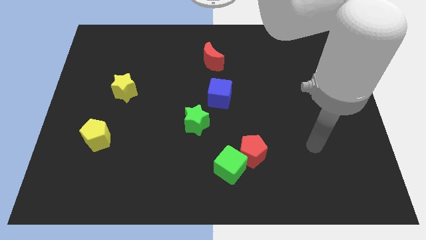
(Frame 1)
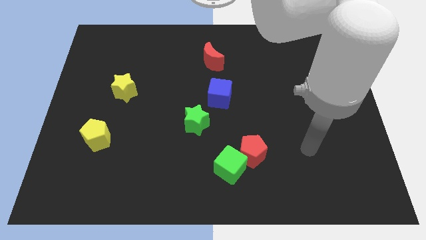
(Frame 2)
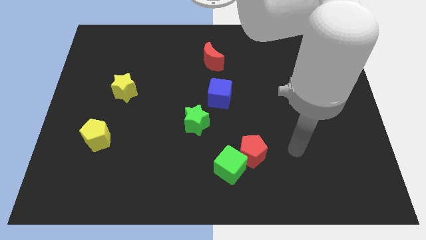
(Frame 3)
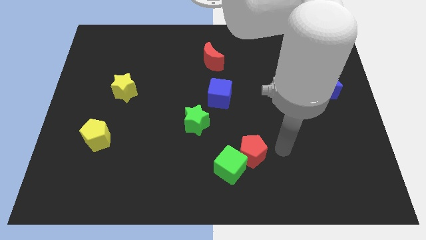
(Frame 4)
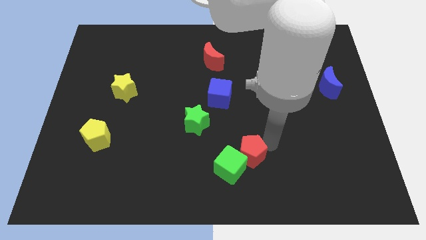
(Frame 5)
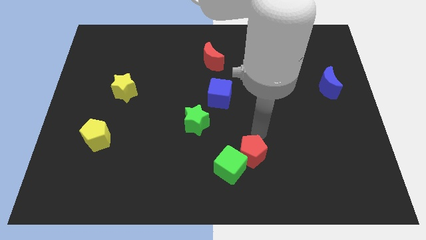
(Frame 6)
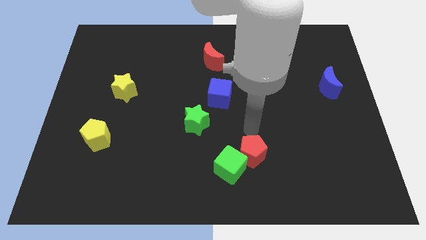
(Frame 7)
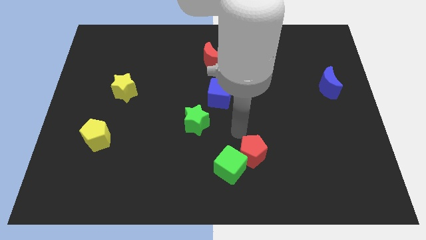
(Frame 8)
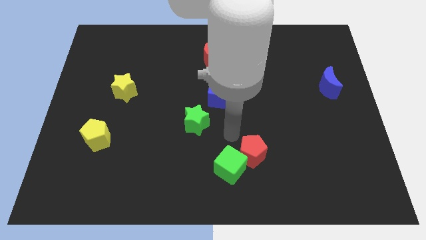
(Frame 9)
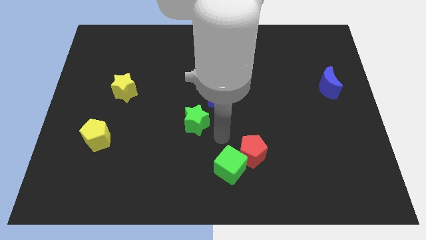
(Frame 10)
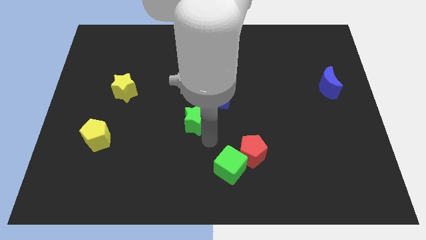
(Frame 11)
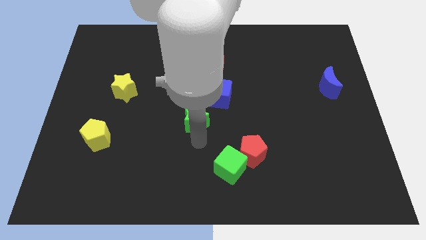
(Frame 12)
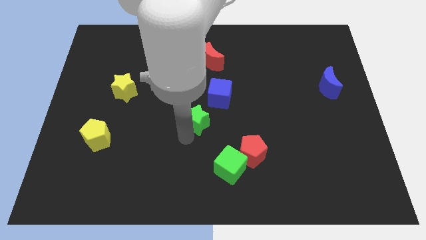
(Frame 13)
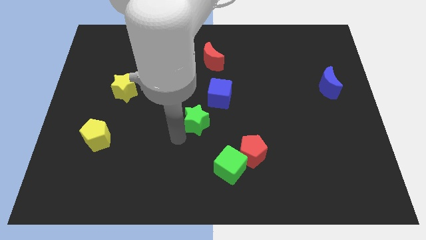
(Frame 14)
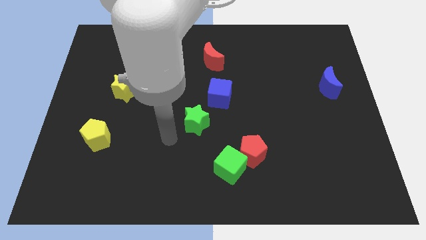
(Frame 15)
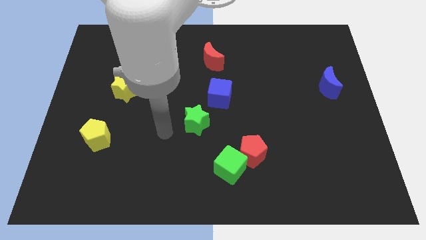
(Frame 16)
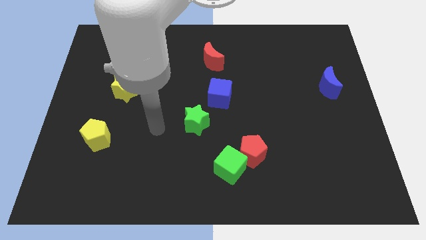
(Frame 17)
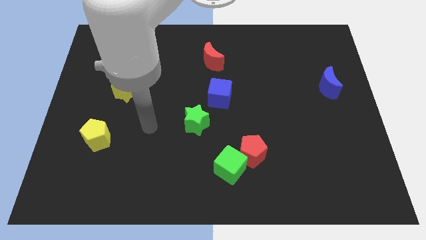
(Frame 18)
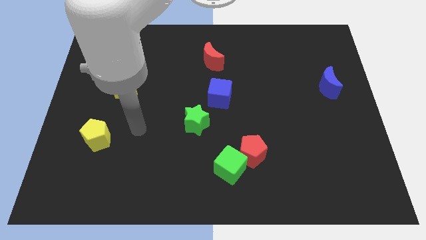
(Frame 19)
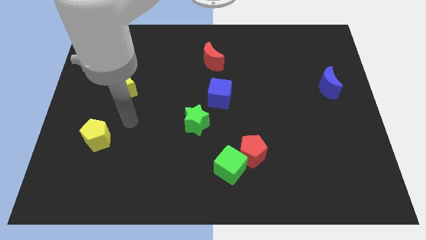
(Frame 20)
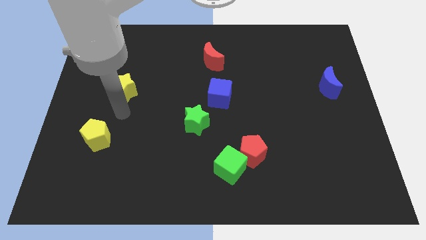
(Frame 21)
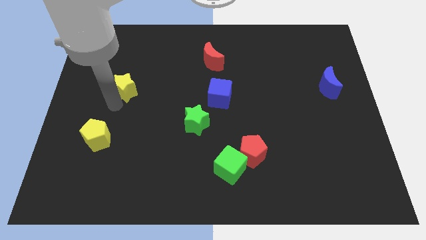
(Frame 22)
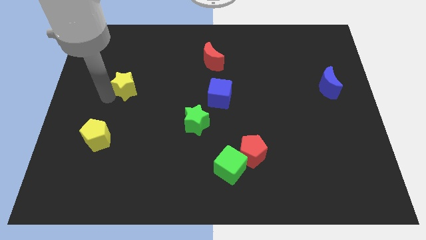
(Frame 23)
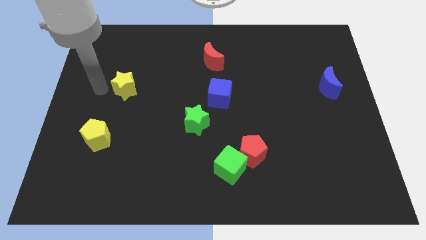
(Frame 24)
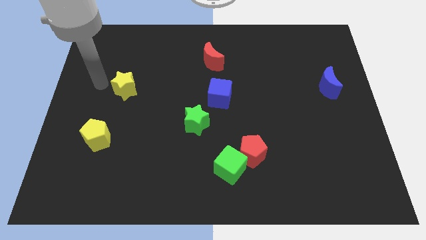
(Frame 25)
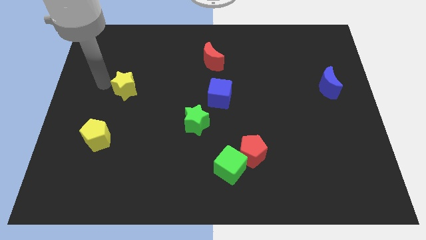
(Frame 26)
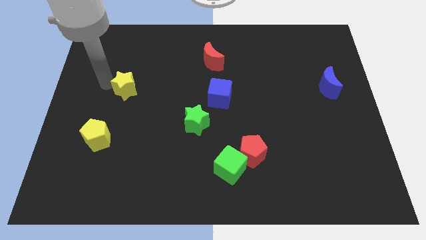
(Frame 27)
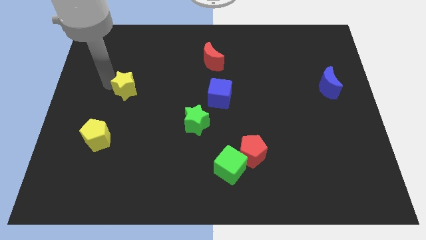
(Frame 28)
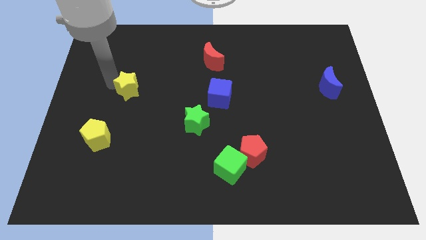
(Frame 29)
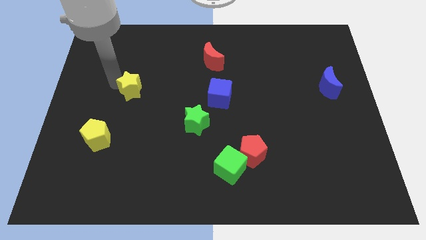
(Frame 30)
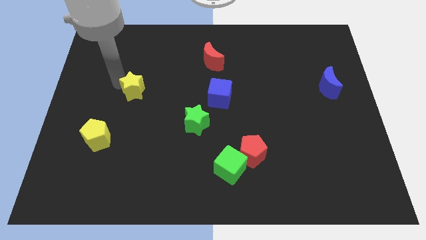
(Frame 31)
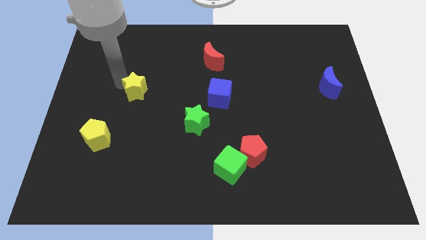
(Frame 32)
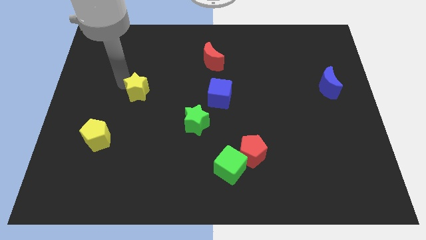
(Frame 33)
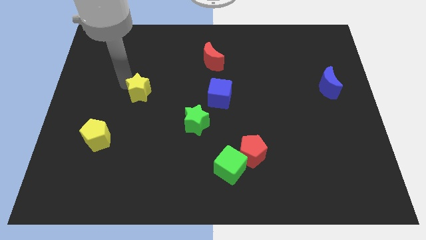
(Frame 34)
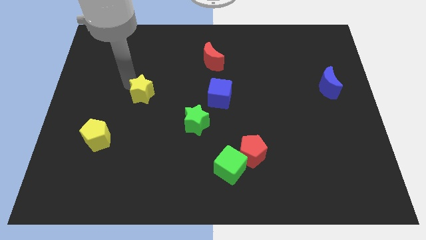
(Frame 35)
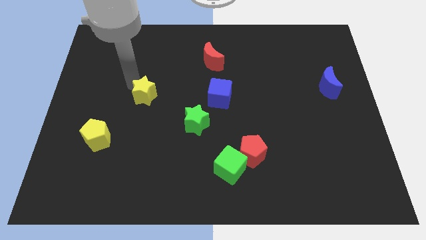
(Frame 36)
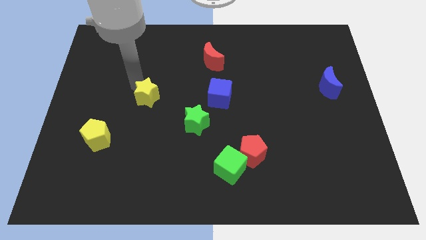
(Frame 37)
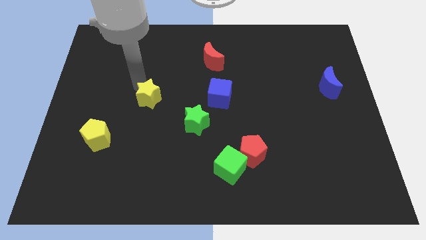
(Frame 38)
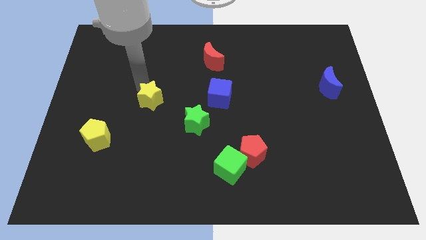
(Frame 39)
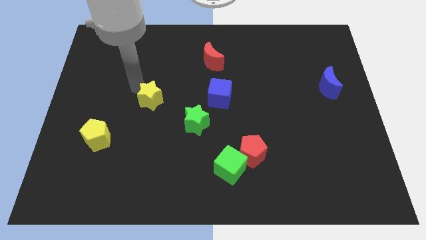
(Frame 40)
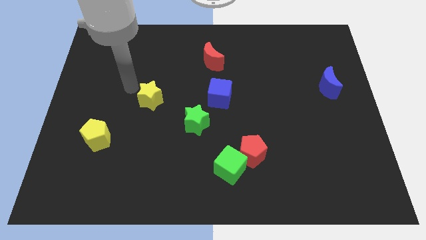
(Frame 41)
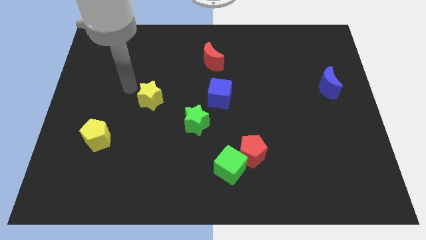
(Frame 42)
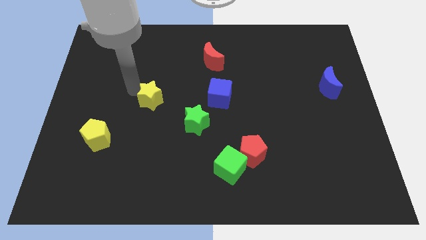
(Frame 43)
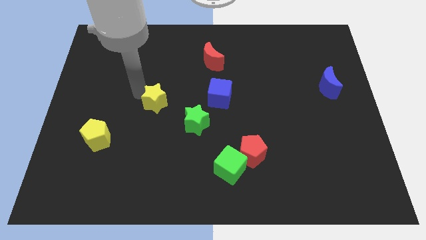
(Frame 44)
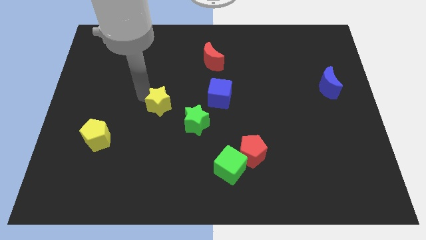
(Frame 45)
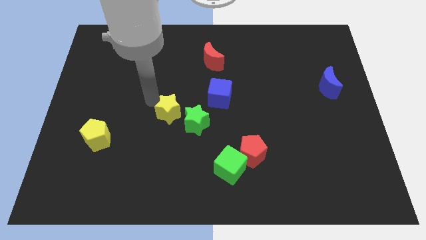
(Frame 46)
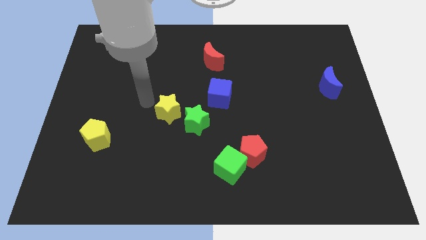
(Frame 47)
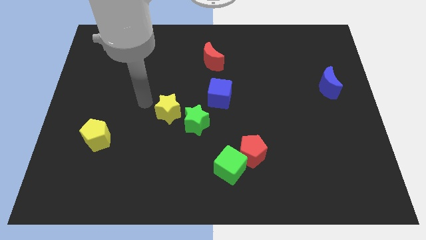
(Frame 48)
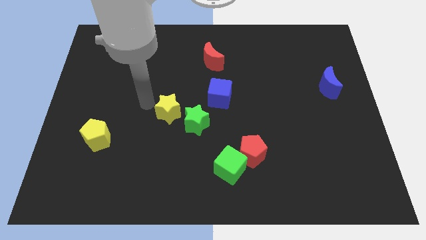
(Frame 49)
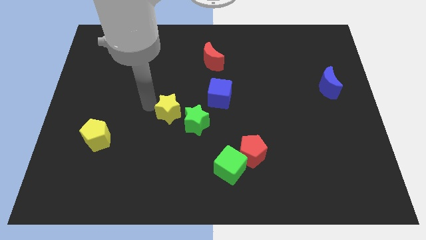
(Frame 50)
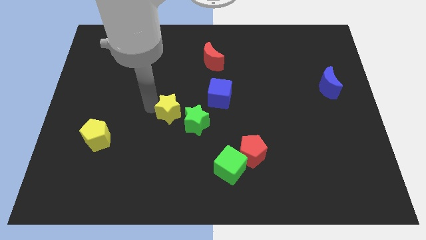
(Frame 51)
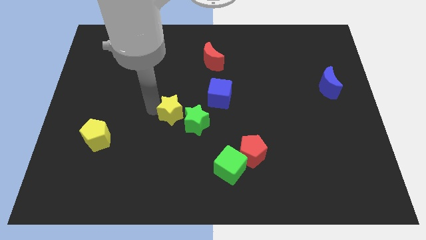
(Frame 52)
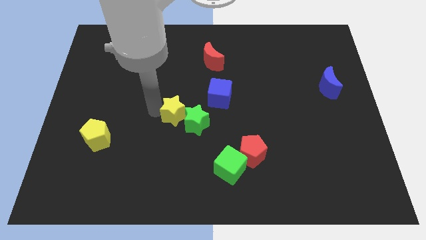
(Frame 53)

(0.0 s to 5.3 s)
push the yellow star towards the green star

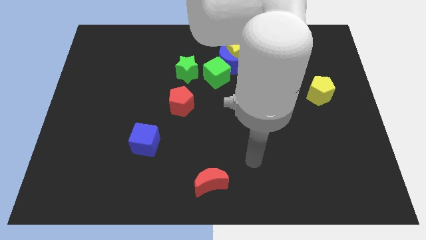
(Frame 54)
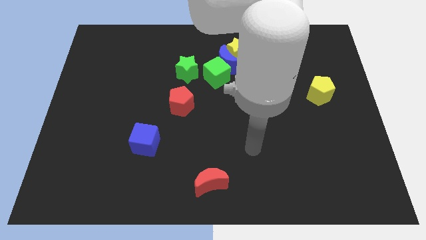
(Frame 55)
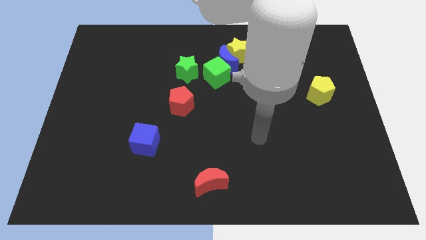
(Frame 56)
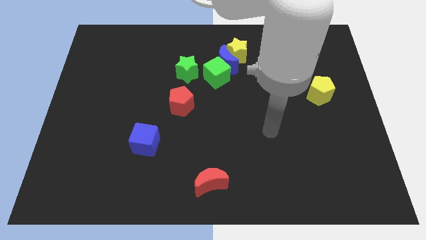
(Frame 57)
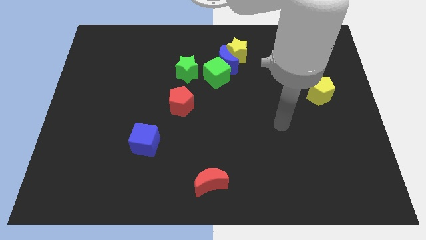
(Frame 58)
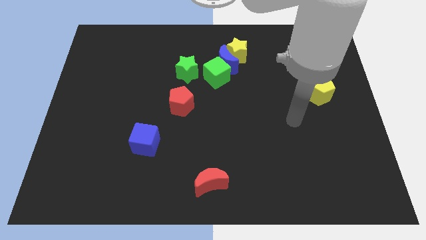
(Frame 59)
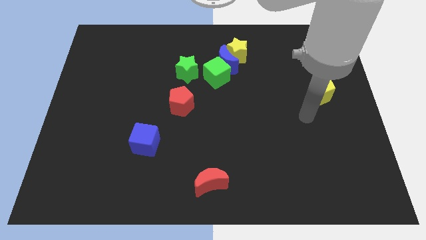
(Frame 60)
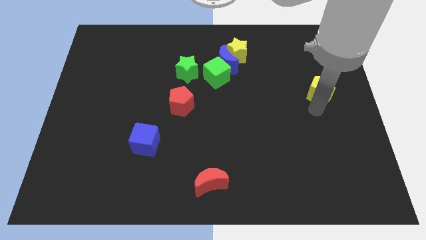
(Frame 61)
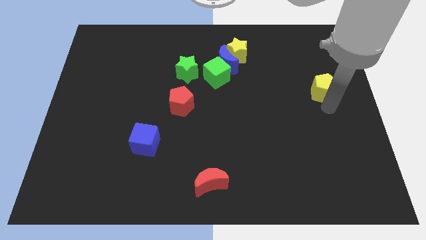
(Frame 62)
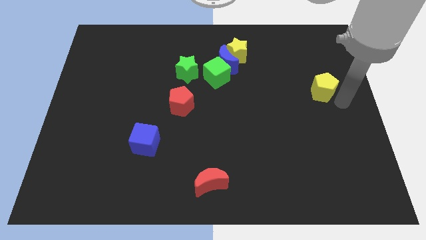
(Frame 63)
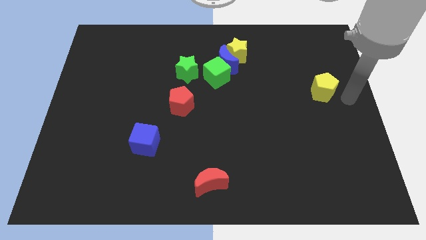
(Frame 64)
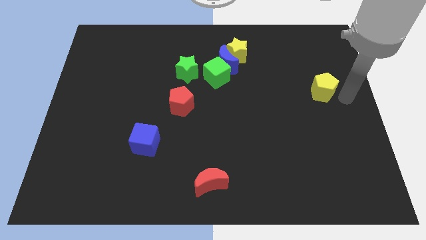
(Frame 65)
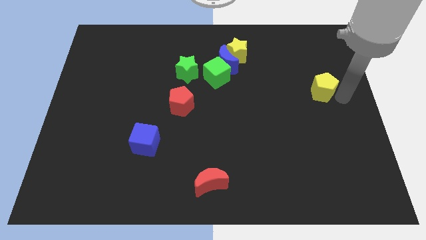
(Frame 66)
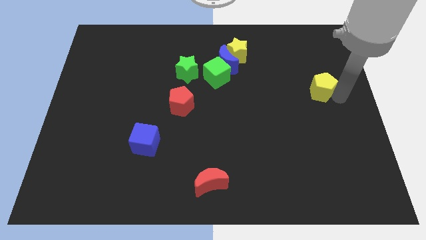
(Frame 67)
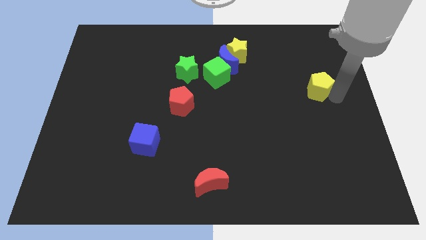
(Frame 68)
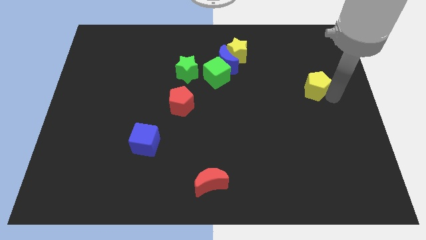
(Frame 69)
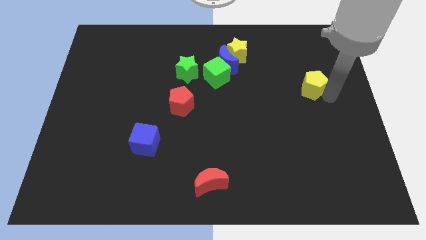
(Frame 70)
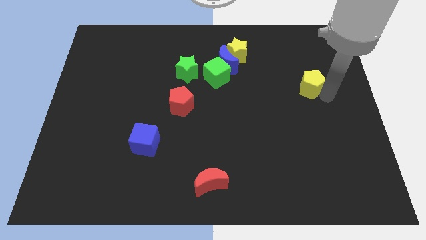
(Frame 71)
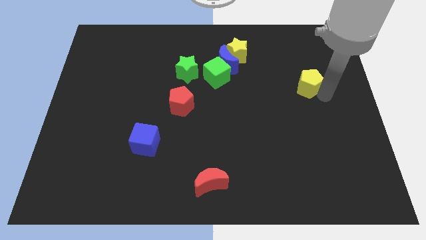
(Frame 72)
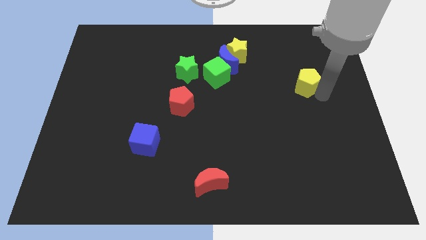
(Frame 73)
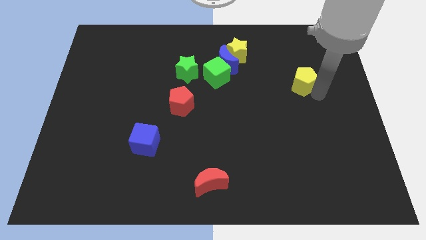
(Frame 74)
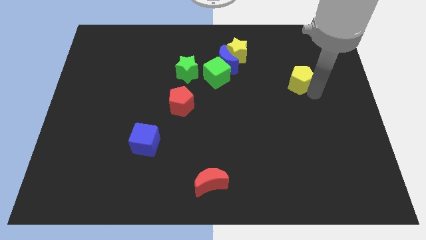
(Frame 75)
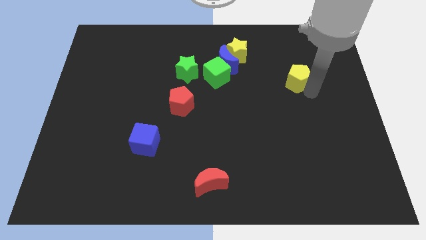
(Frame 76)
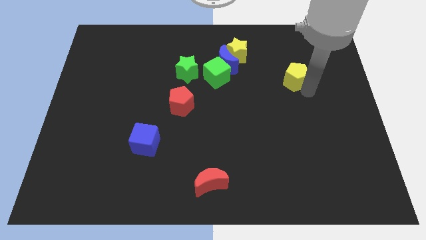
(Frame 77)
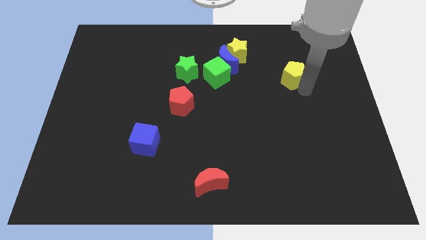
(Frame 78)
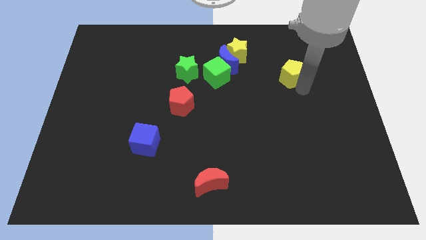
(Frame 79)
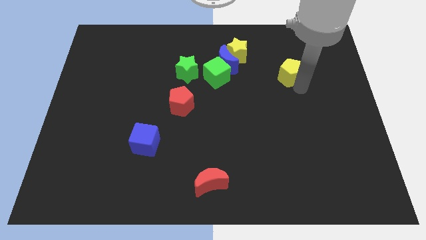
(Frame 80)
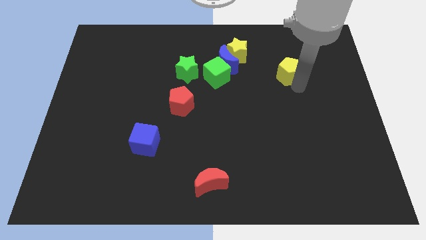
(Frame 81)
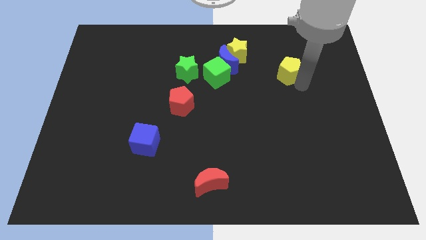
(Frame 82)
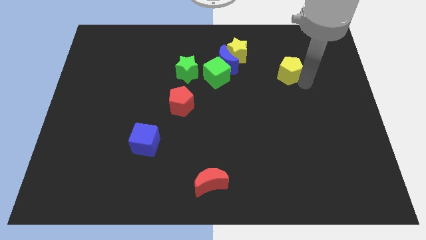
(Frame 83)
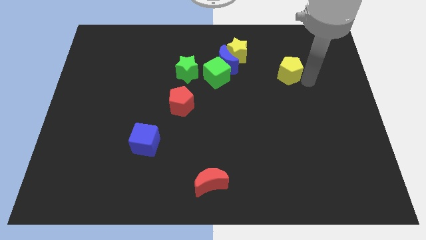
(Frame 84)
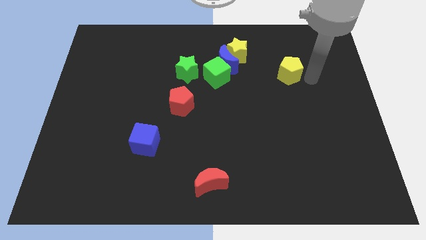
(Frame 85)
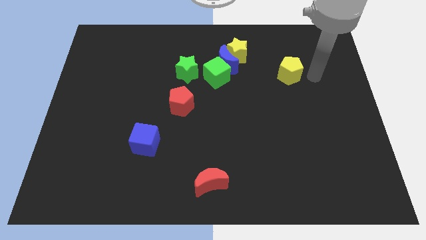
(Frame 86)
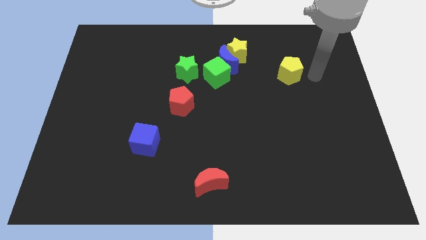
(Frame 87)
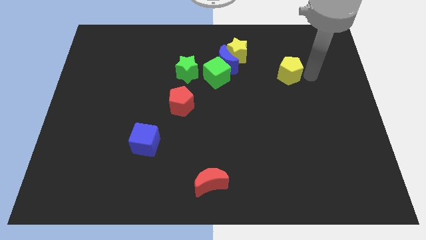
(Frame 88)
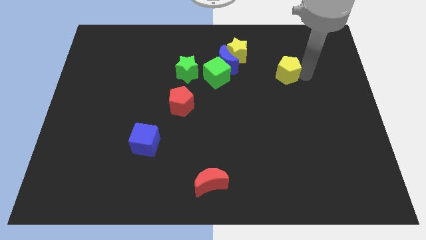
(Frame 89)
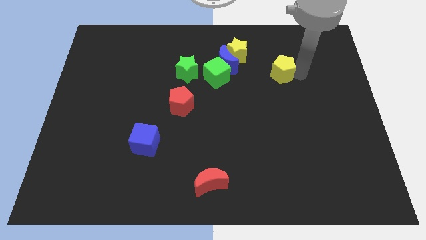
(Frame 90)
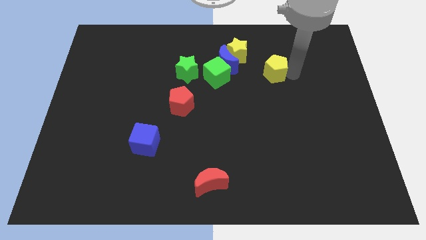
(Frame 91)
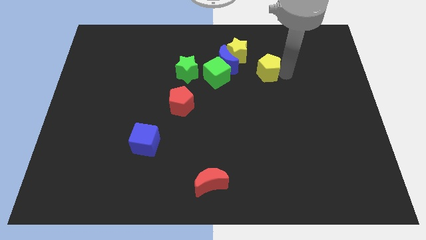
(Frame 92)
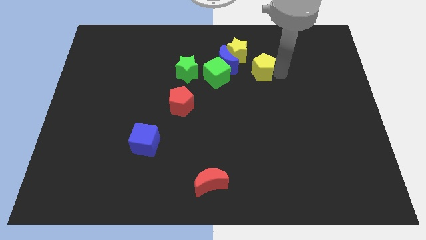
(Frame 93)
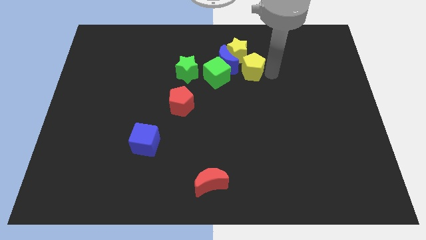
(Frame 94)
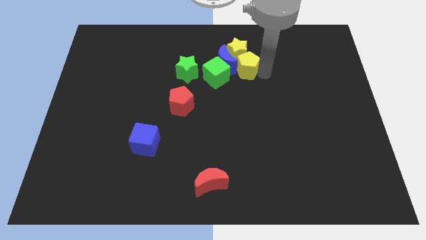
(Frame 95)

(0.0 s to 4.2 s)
move the yellow pentagon close to the yellow star
